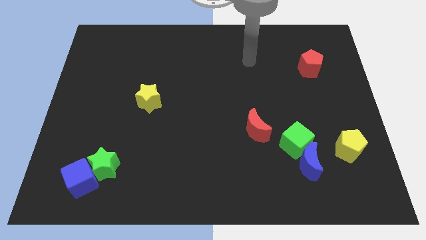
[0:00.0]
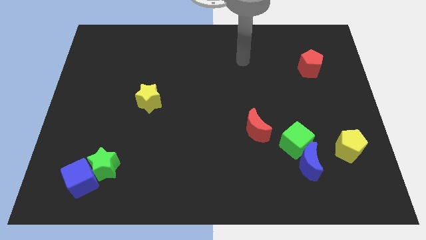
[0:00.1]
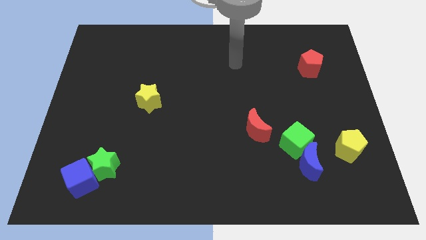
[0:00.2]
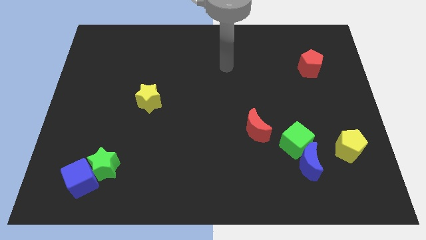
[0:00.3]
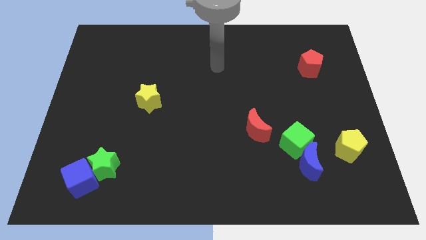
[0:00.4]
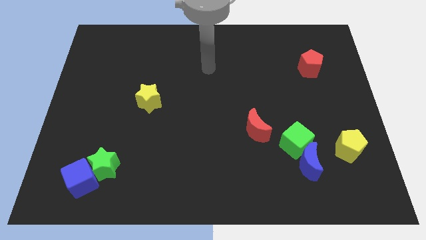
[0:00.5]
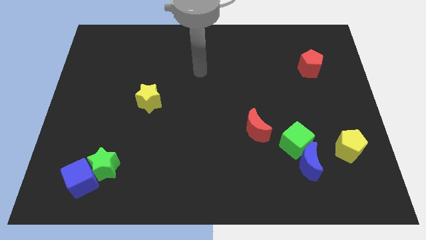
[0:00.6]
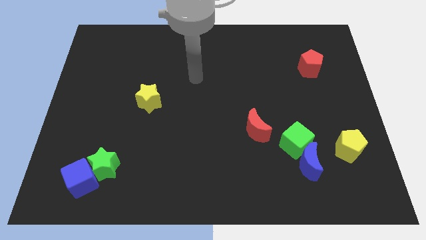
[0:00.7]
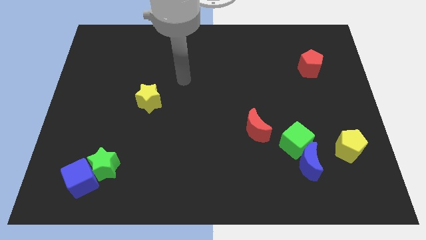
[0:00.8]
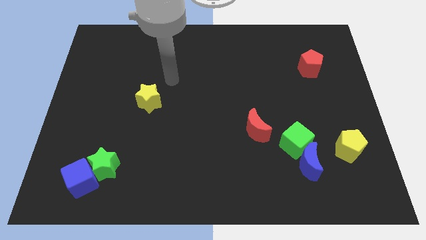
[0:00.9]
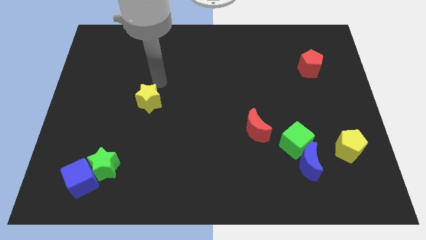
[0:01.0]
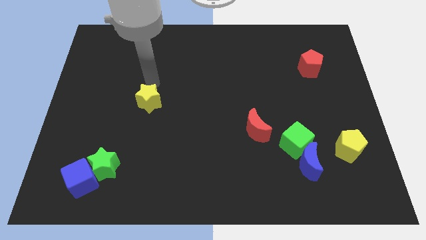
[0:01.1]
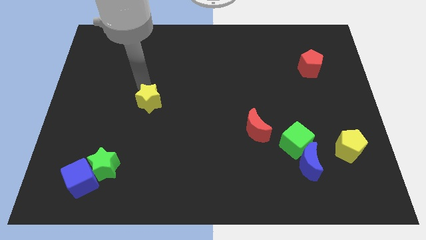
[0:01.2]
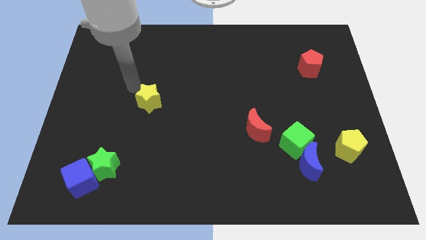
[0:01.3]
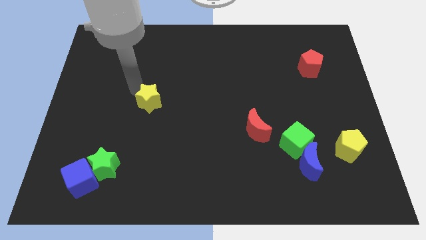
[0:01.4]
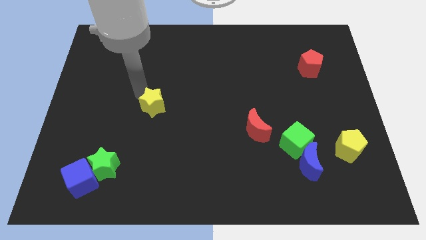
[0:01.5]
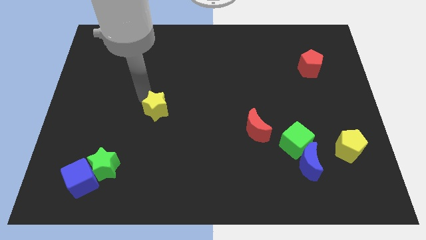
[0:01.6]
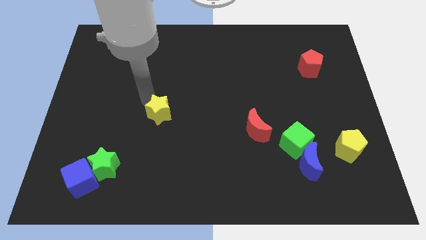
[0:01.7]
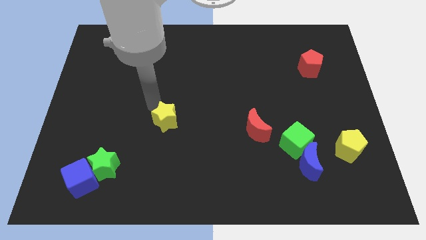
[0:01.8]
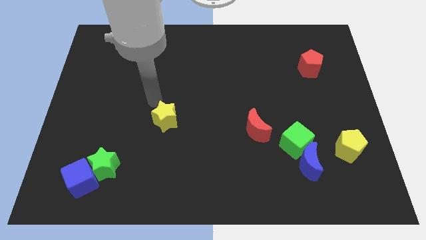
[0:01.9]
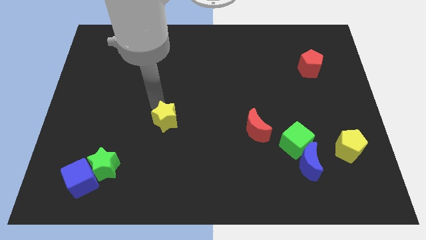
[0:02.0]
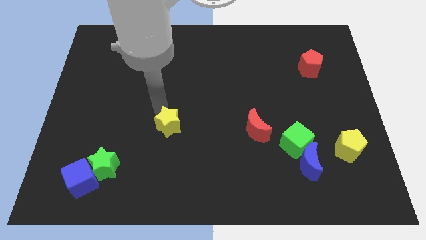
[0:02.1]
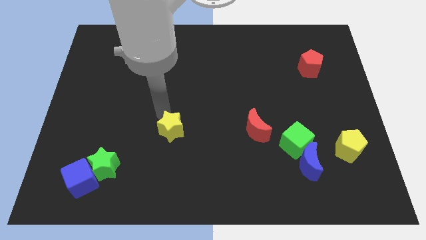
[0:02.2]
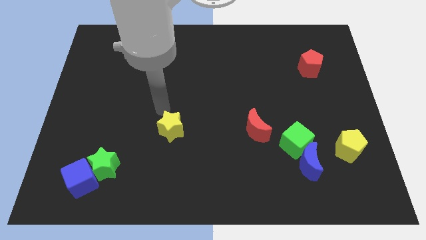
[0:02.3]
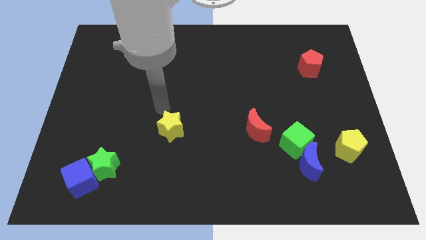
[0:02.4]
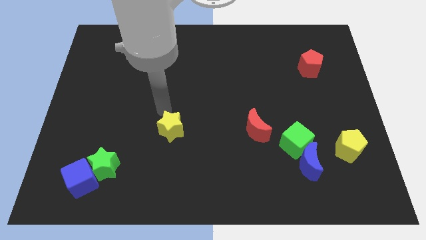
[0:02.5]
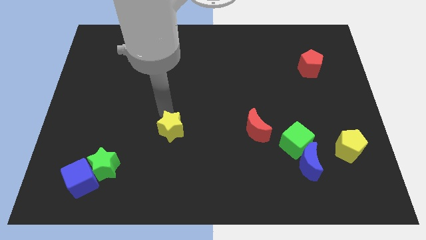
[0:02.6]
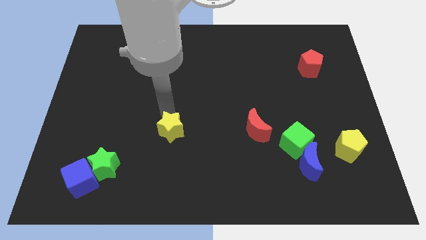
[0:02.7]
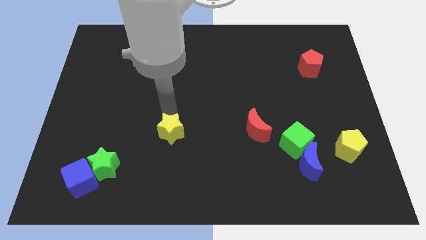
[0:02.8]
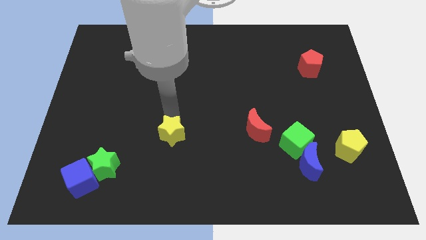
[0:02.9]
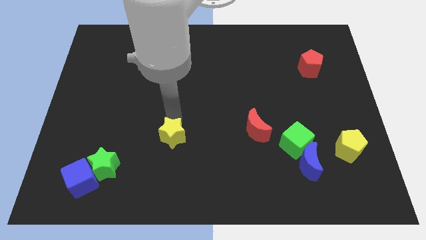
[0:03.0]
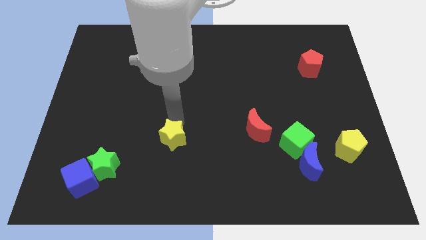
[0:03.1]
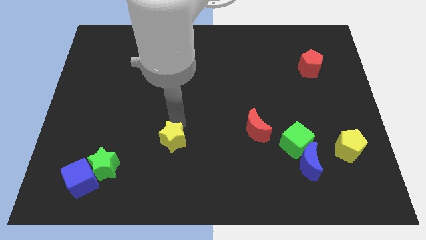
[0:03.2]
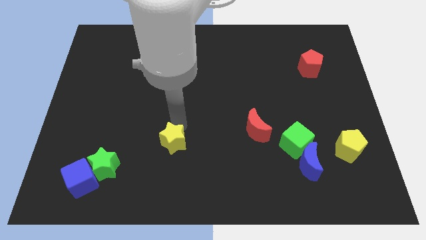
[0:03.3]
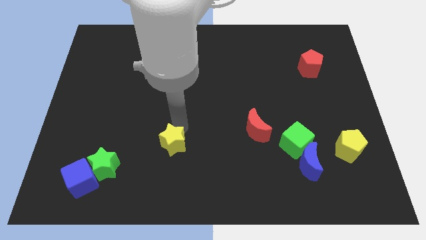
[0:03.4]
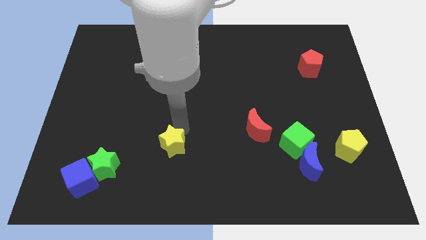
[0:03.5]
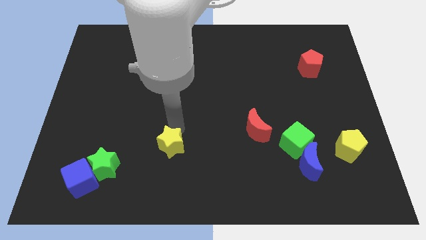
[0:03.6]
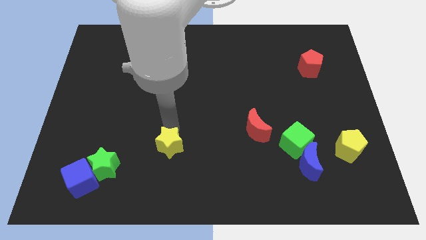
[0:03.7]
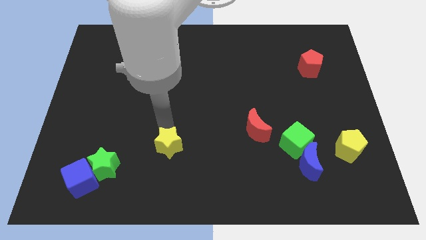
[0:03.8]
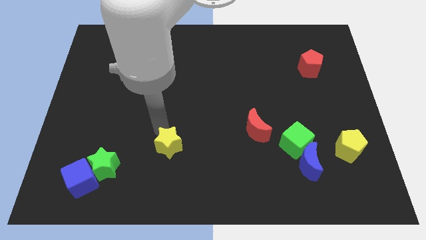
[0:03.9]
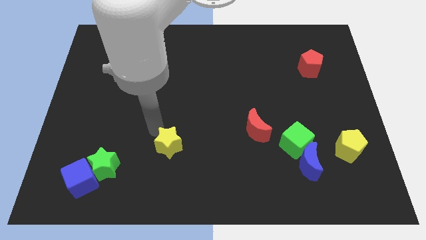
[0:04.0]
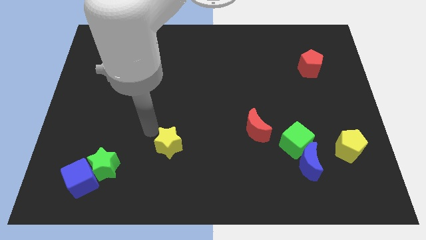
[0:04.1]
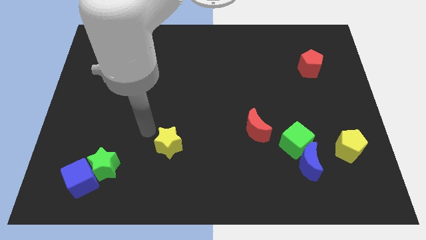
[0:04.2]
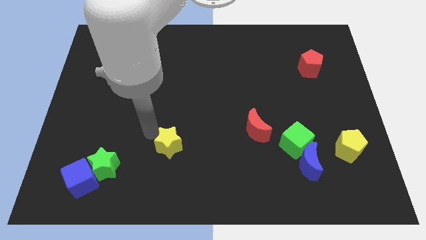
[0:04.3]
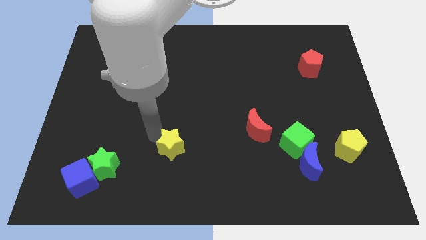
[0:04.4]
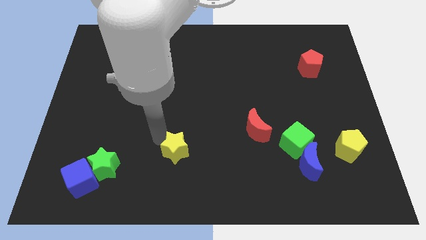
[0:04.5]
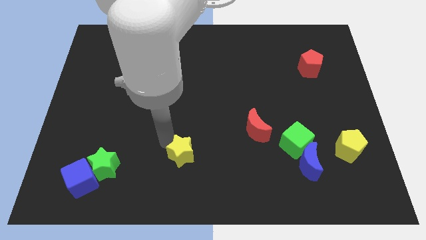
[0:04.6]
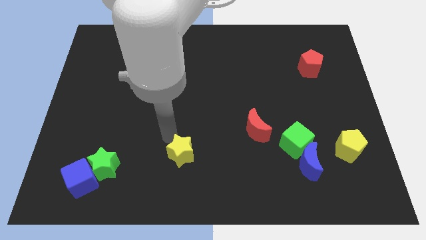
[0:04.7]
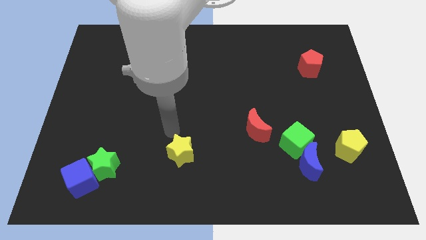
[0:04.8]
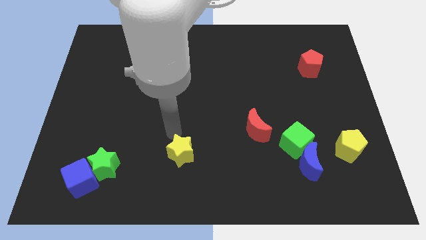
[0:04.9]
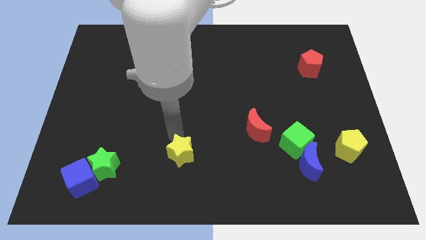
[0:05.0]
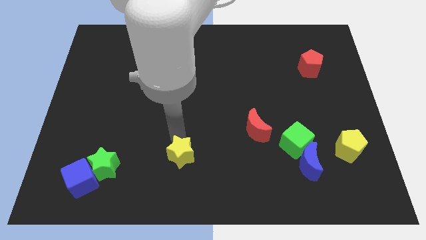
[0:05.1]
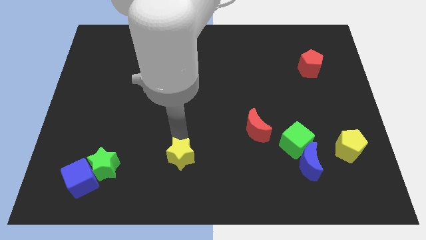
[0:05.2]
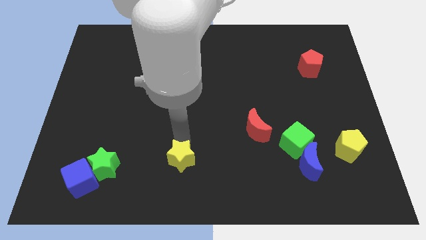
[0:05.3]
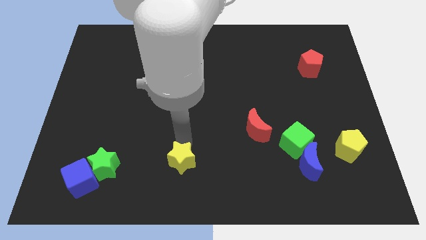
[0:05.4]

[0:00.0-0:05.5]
slide the yellow star to the bottom side
